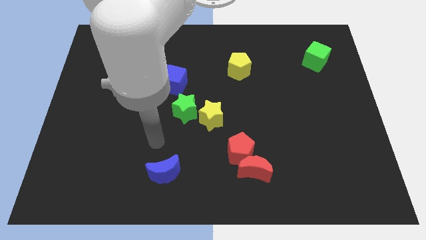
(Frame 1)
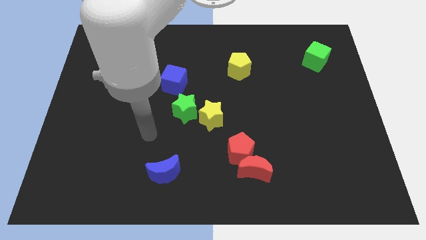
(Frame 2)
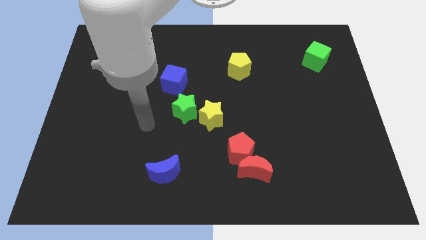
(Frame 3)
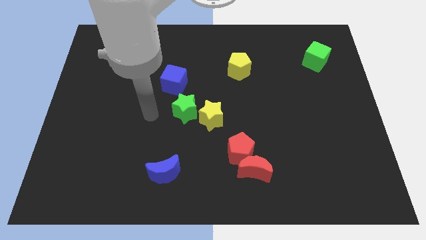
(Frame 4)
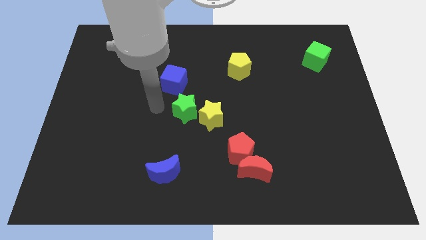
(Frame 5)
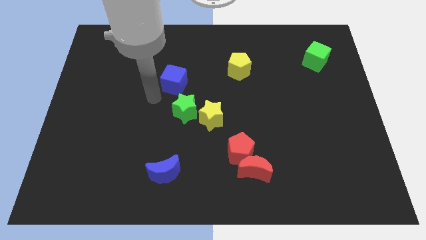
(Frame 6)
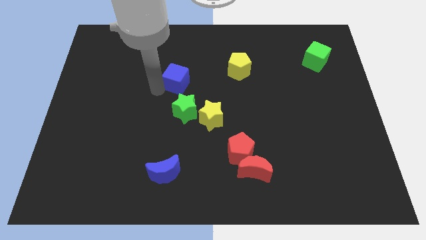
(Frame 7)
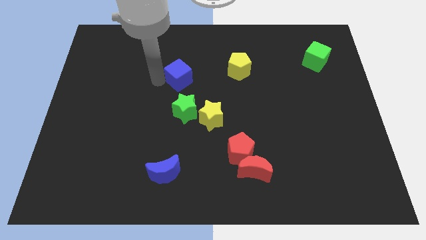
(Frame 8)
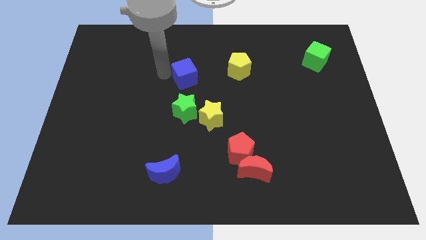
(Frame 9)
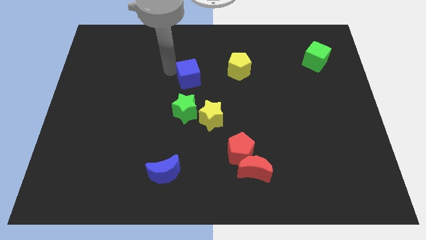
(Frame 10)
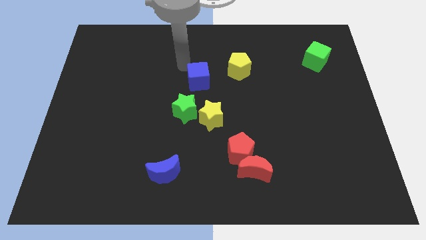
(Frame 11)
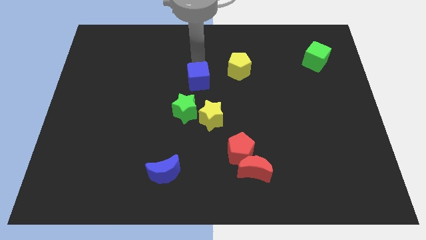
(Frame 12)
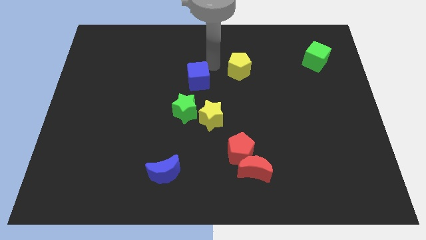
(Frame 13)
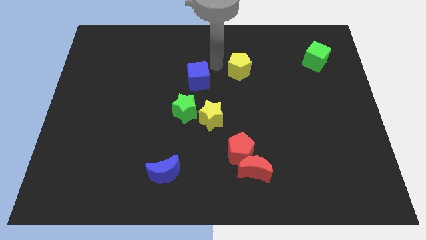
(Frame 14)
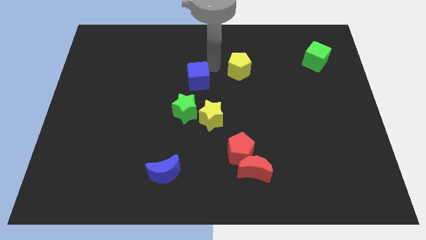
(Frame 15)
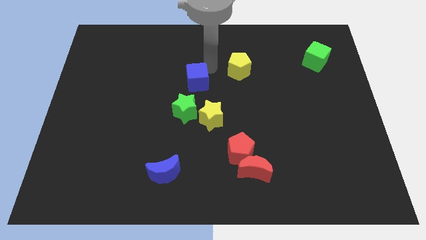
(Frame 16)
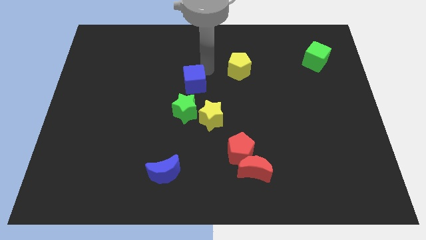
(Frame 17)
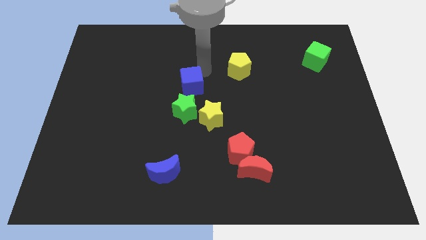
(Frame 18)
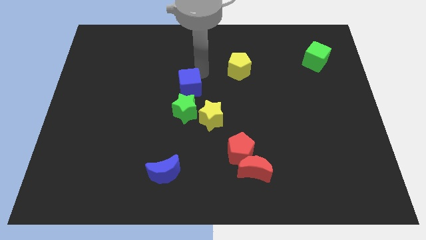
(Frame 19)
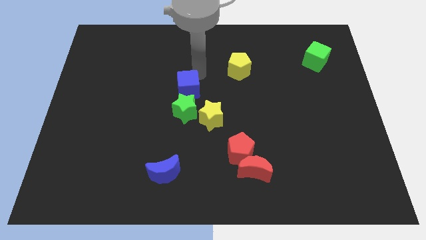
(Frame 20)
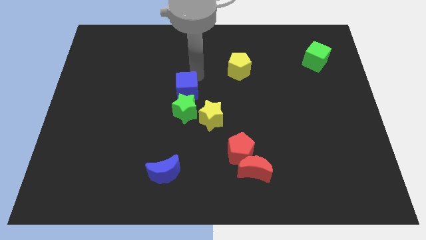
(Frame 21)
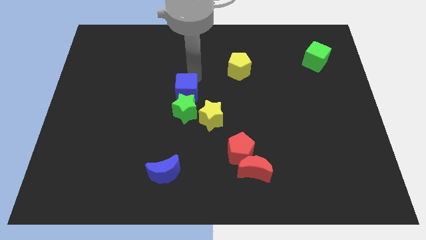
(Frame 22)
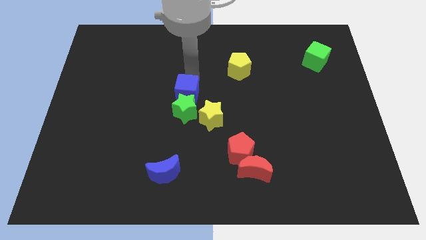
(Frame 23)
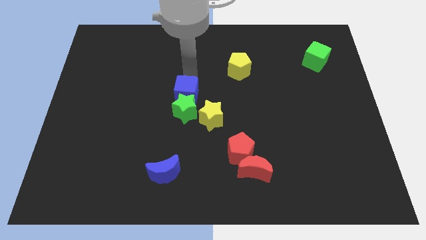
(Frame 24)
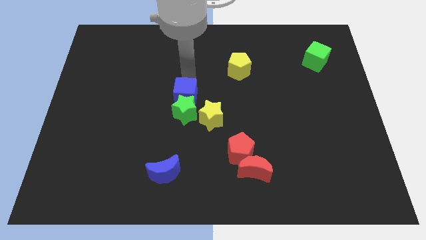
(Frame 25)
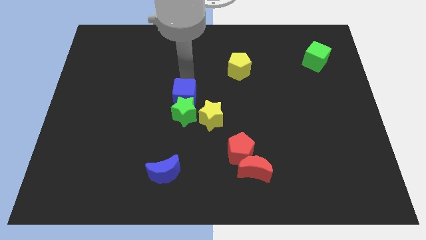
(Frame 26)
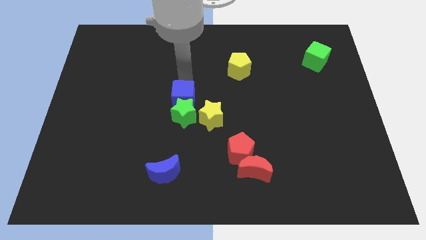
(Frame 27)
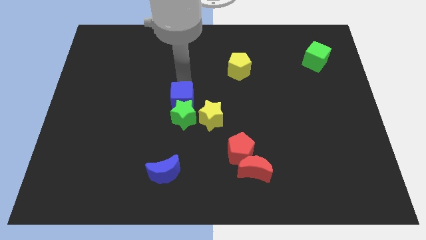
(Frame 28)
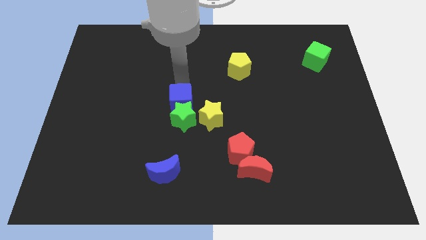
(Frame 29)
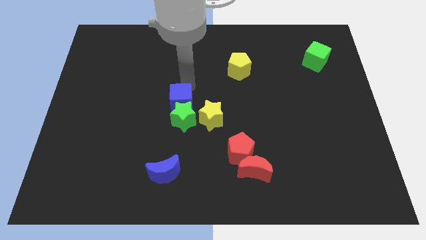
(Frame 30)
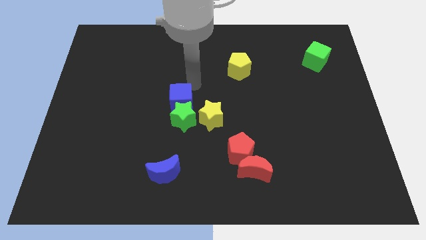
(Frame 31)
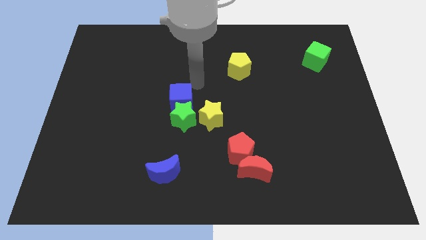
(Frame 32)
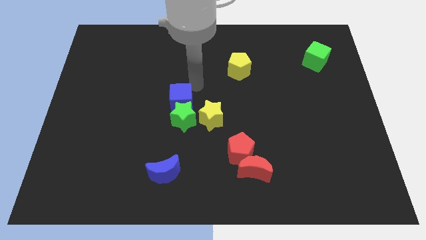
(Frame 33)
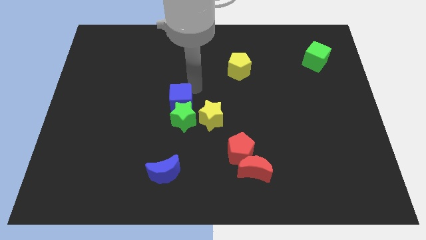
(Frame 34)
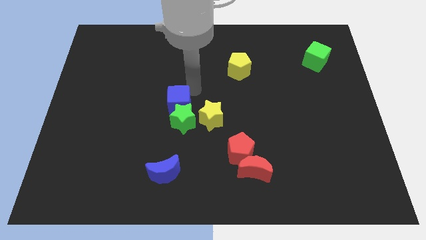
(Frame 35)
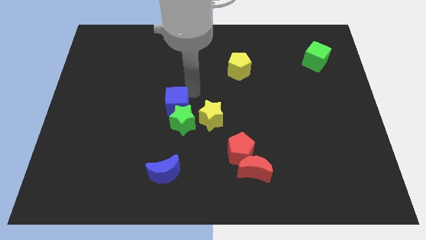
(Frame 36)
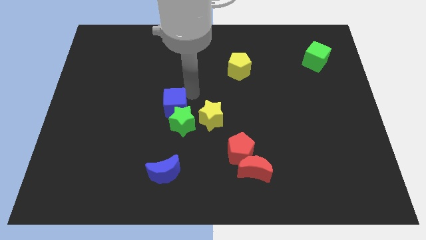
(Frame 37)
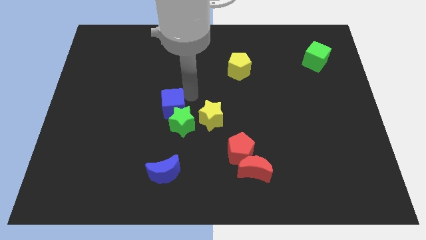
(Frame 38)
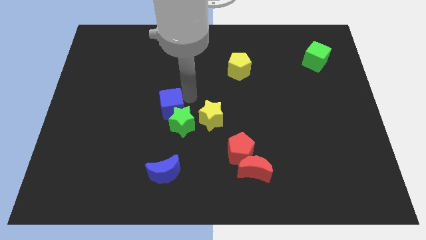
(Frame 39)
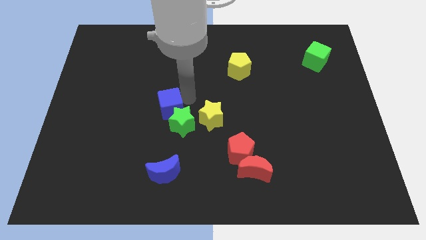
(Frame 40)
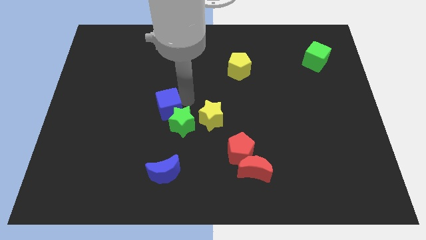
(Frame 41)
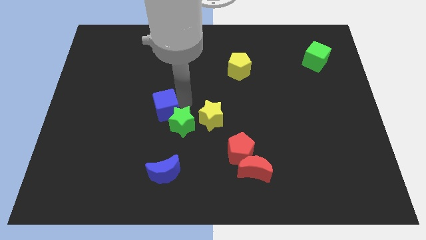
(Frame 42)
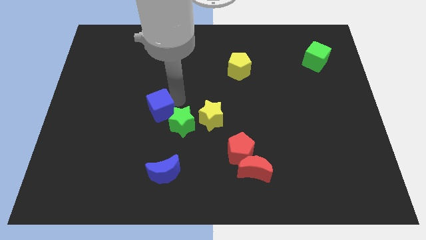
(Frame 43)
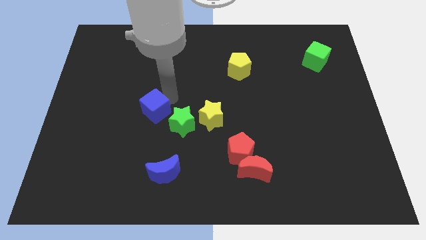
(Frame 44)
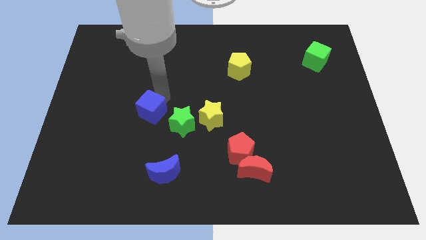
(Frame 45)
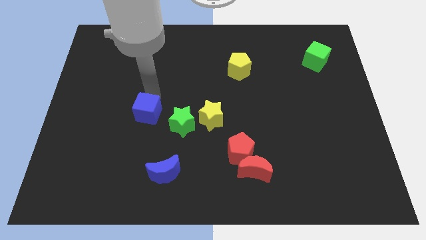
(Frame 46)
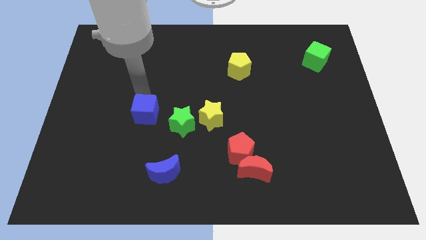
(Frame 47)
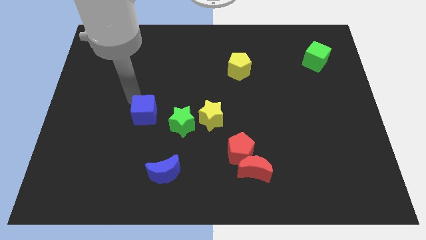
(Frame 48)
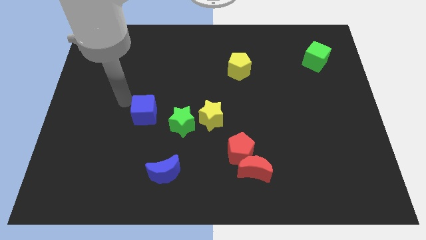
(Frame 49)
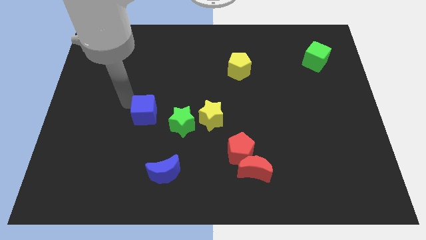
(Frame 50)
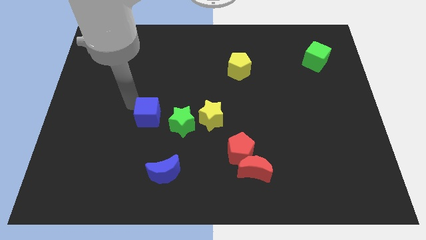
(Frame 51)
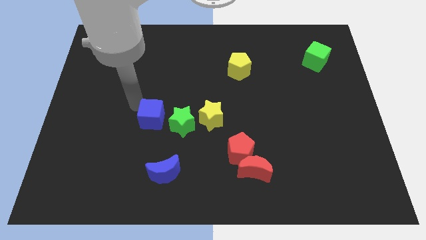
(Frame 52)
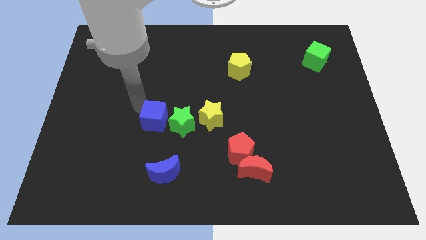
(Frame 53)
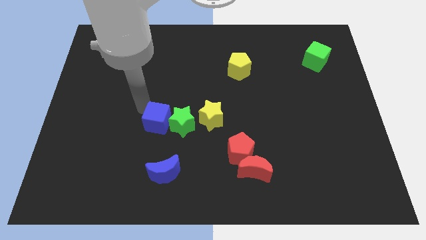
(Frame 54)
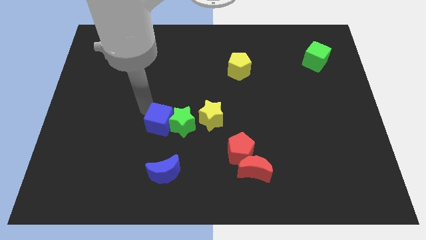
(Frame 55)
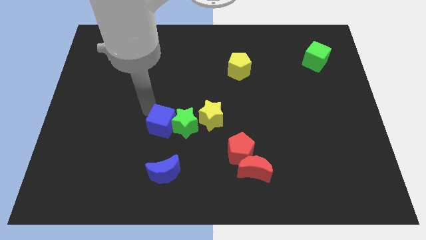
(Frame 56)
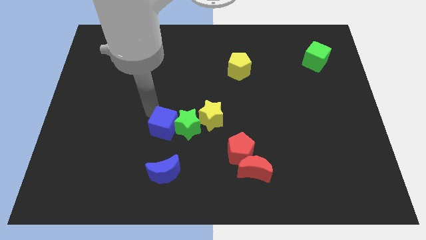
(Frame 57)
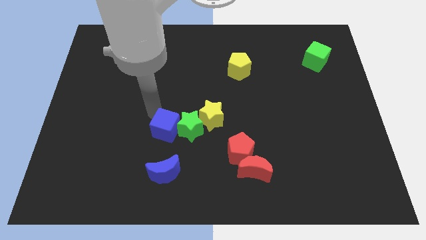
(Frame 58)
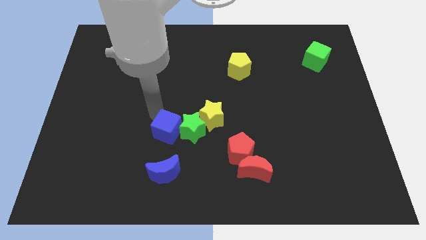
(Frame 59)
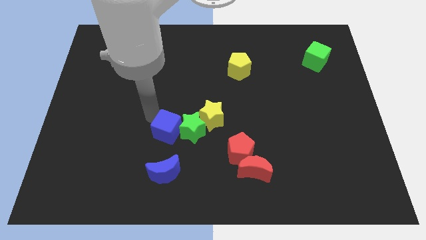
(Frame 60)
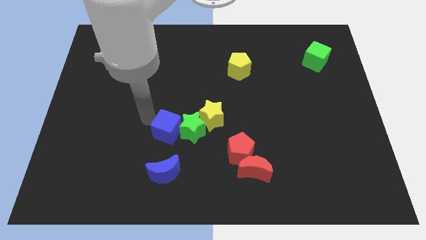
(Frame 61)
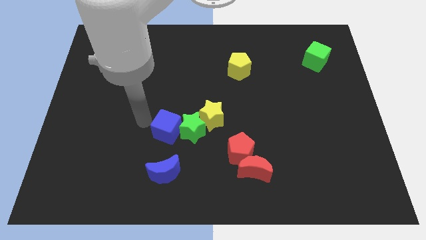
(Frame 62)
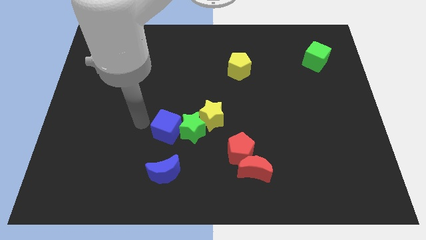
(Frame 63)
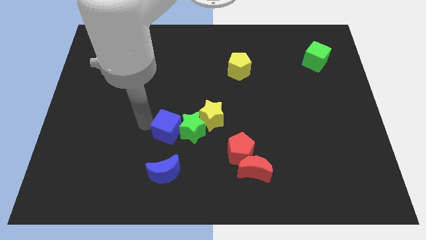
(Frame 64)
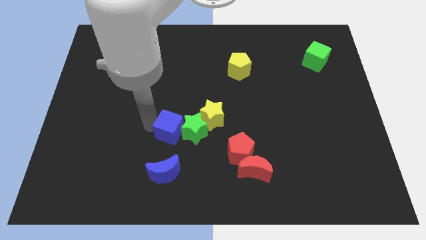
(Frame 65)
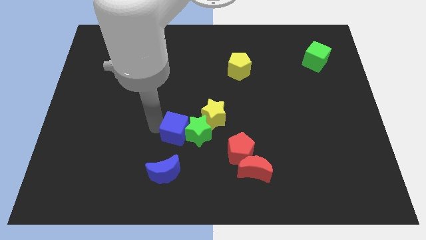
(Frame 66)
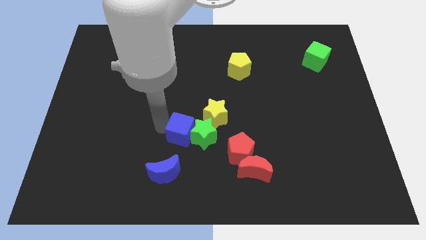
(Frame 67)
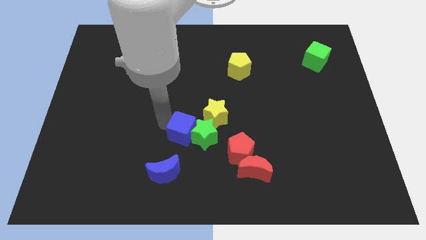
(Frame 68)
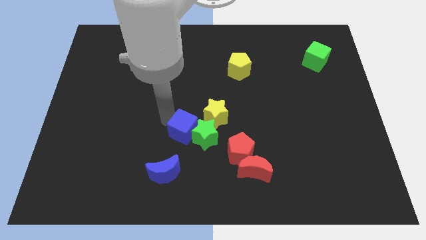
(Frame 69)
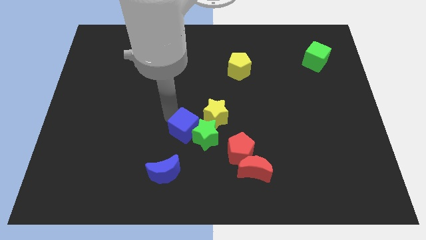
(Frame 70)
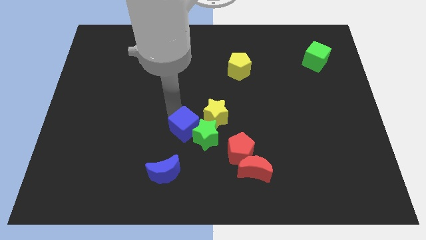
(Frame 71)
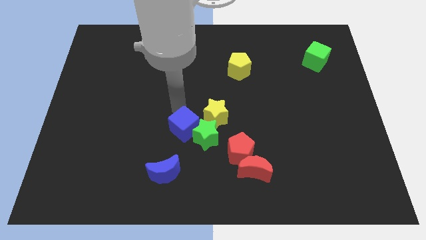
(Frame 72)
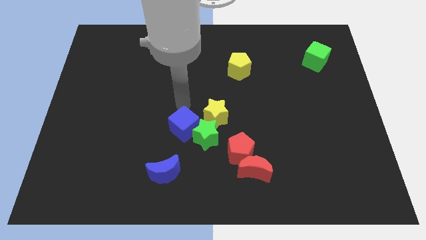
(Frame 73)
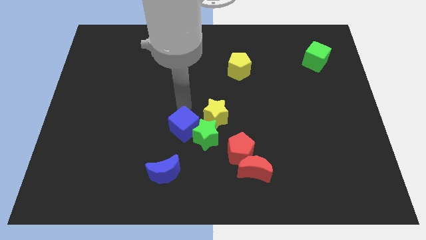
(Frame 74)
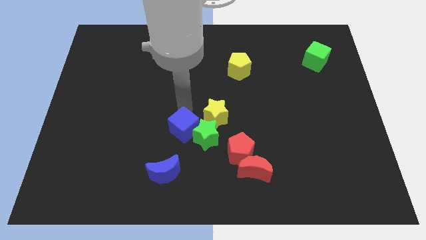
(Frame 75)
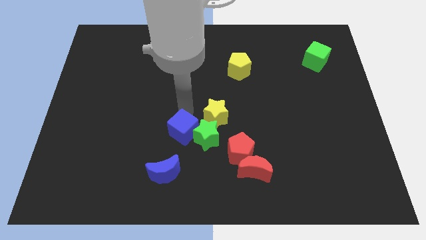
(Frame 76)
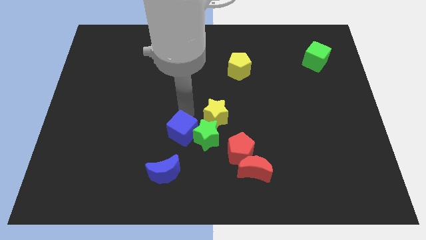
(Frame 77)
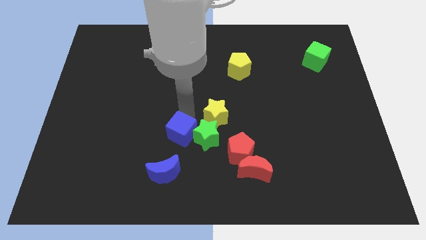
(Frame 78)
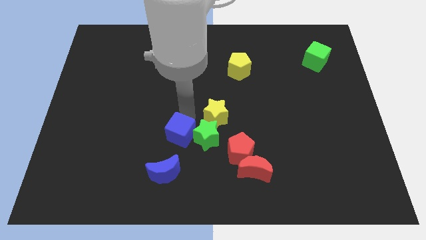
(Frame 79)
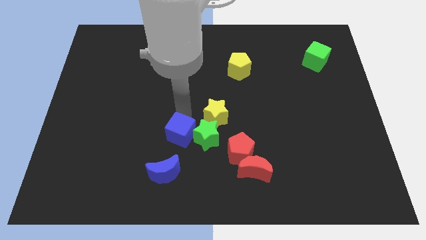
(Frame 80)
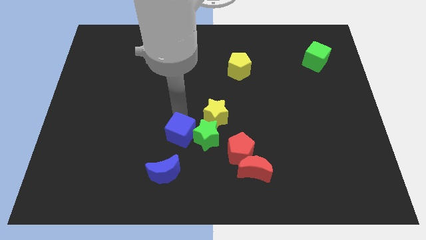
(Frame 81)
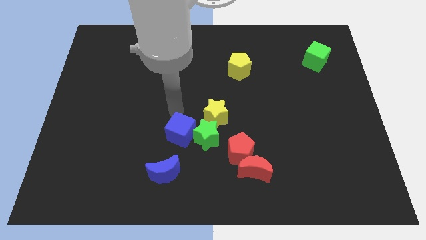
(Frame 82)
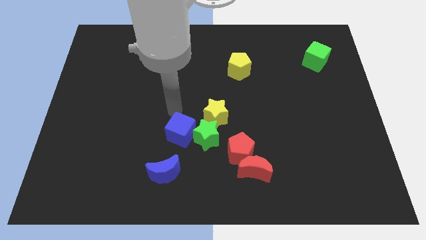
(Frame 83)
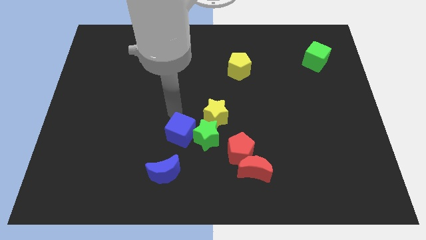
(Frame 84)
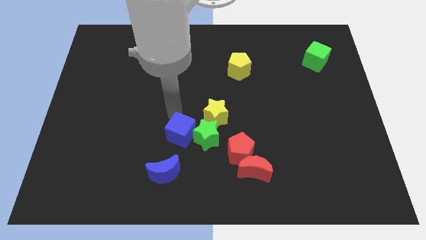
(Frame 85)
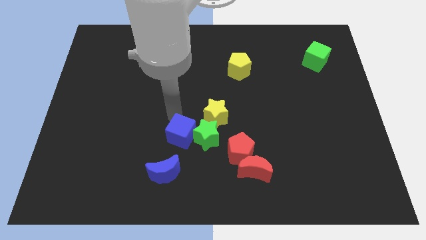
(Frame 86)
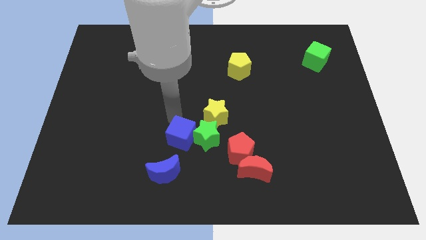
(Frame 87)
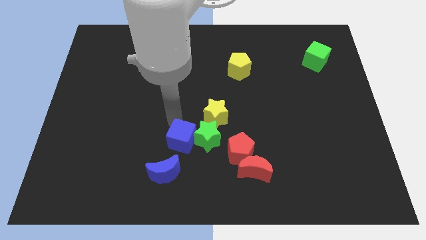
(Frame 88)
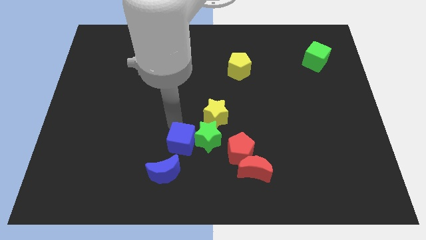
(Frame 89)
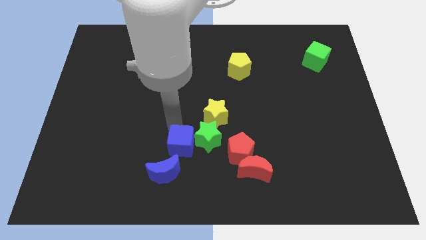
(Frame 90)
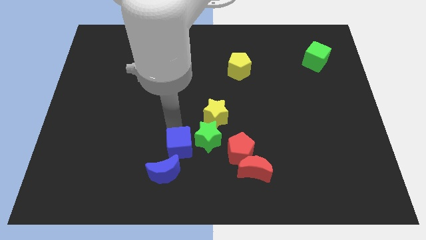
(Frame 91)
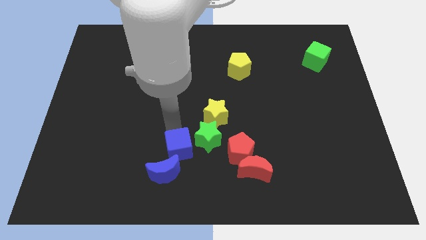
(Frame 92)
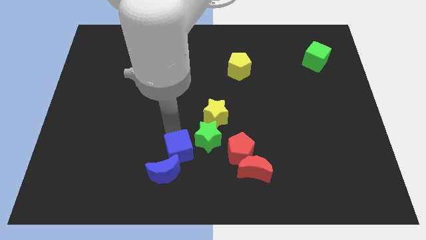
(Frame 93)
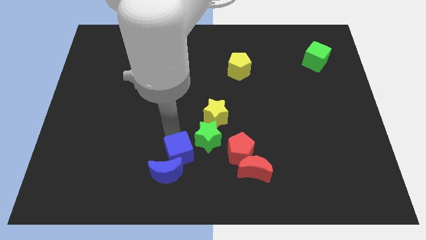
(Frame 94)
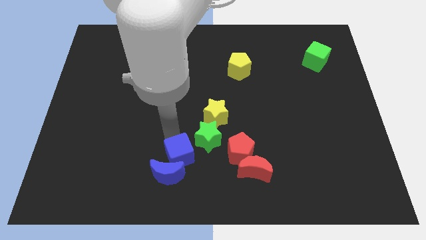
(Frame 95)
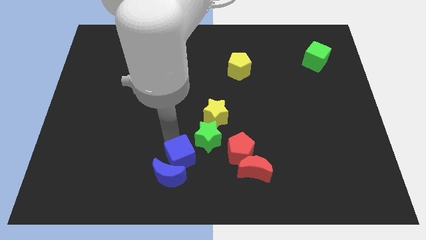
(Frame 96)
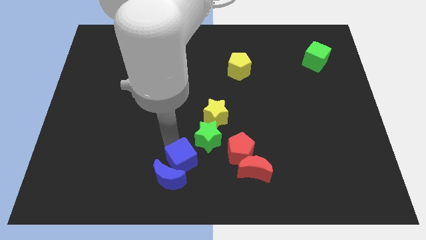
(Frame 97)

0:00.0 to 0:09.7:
move the blue cube to the bottom side
